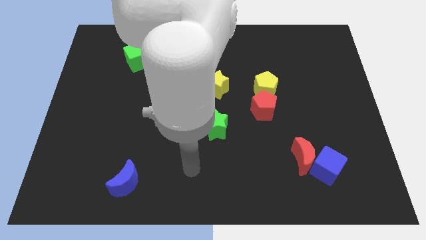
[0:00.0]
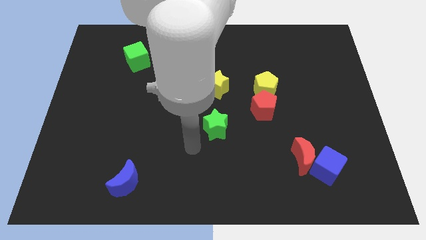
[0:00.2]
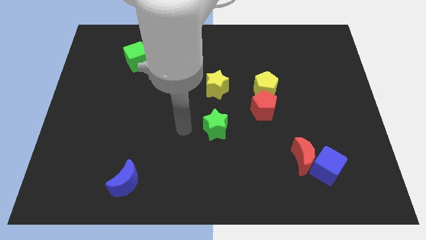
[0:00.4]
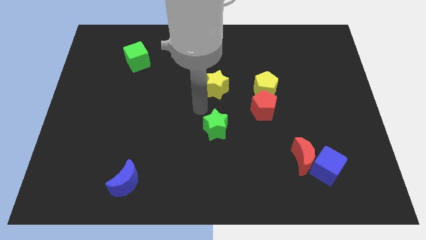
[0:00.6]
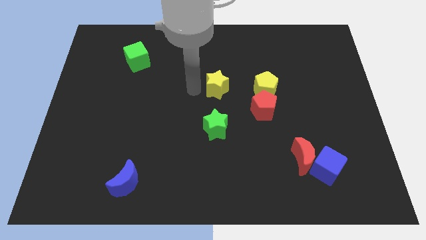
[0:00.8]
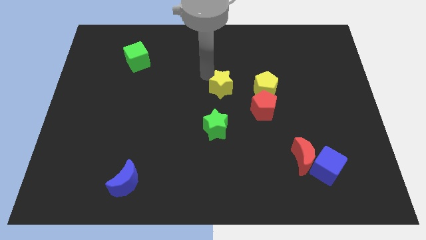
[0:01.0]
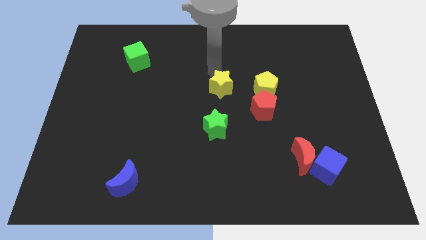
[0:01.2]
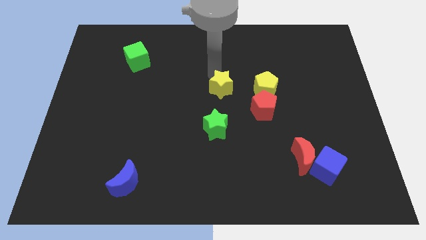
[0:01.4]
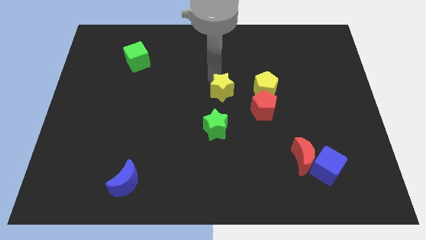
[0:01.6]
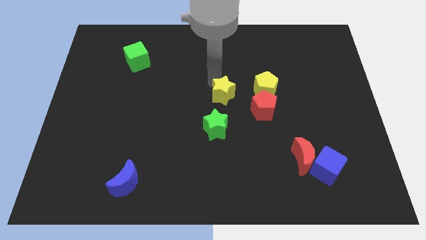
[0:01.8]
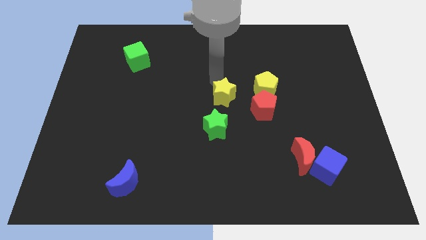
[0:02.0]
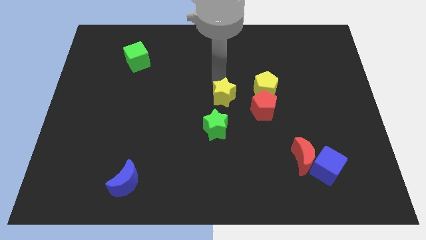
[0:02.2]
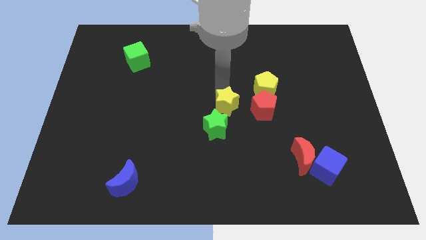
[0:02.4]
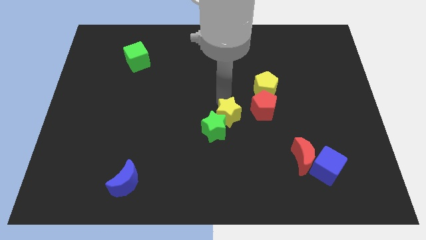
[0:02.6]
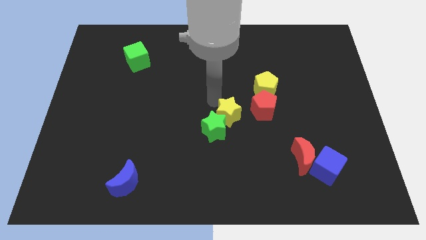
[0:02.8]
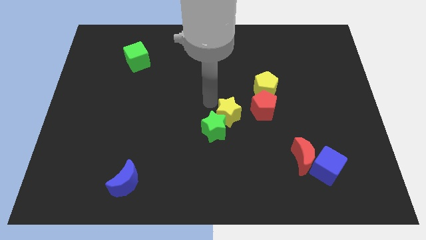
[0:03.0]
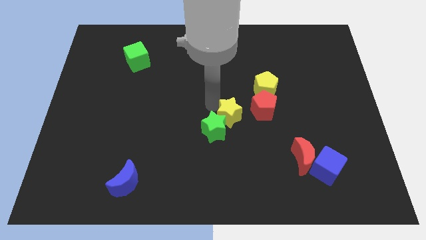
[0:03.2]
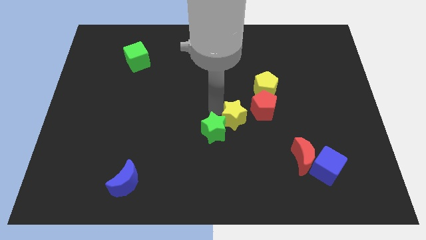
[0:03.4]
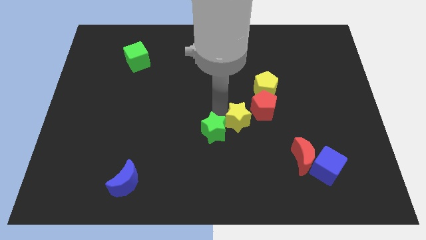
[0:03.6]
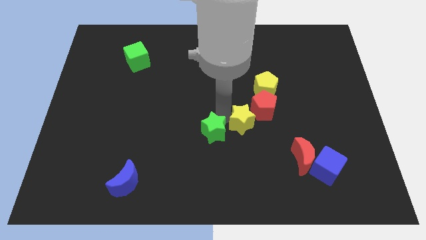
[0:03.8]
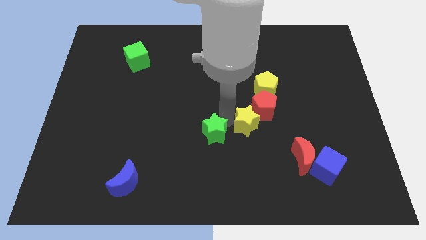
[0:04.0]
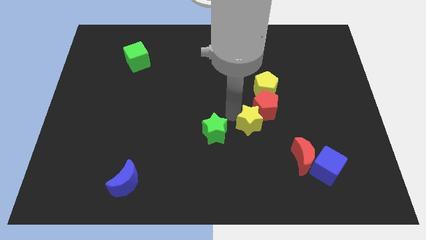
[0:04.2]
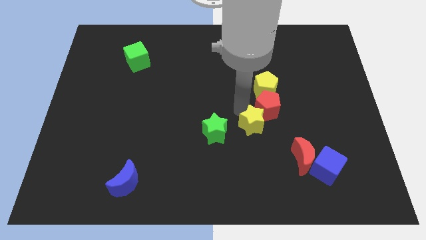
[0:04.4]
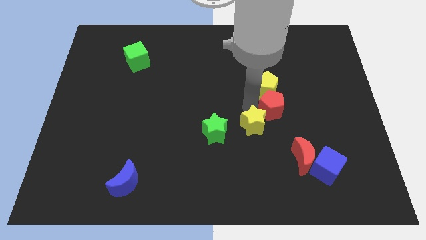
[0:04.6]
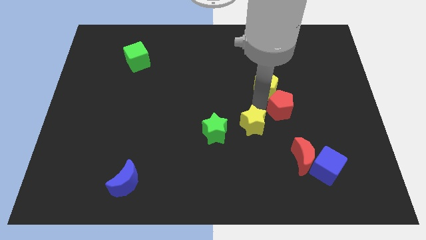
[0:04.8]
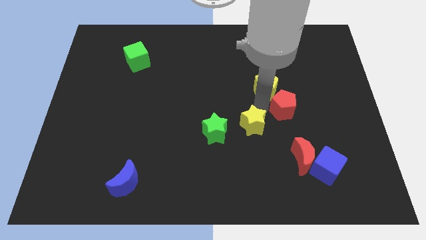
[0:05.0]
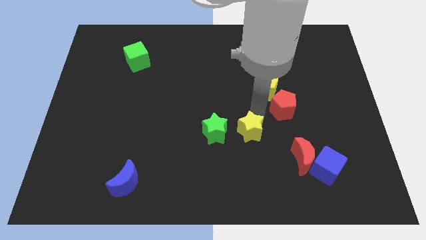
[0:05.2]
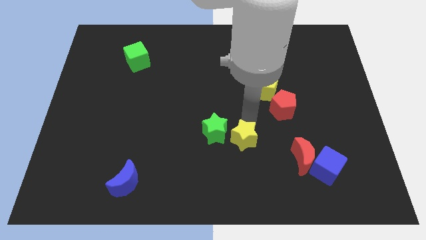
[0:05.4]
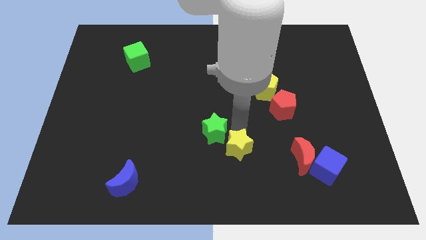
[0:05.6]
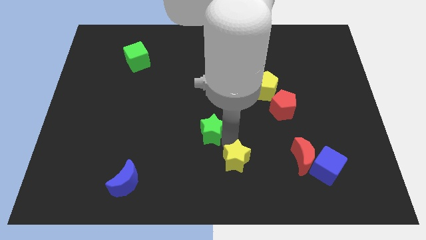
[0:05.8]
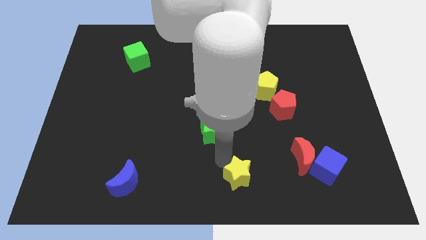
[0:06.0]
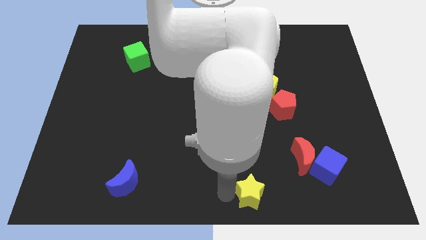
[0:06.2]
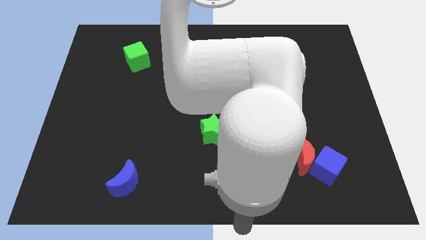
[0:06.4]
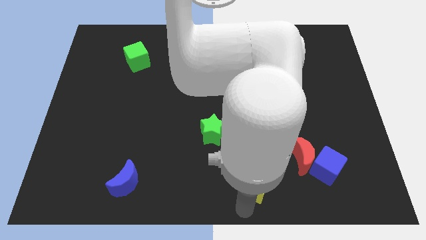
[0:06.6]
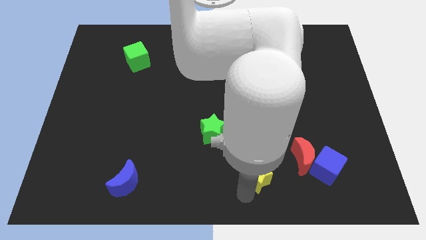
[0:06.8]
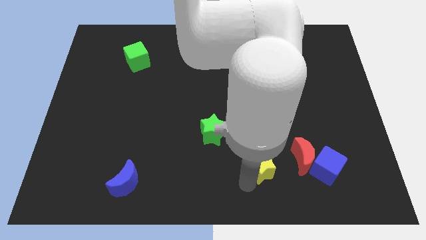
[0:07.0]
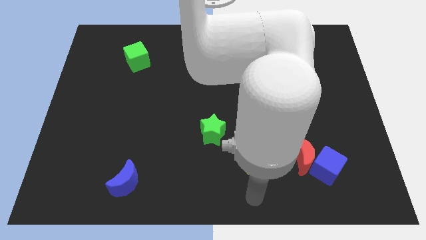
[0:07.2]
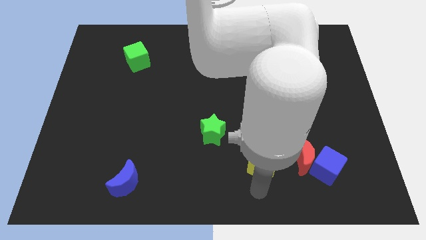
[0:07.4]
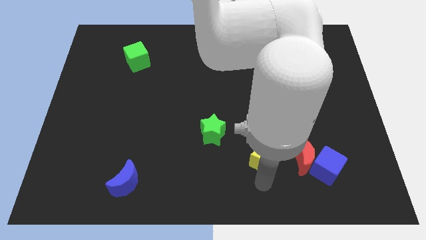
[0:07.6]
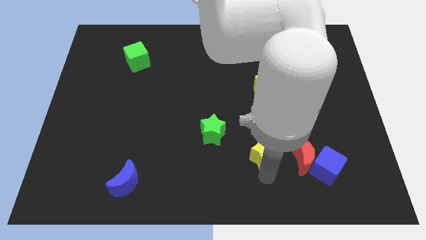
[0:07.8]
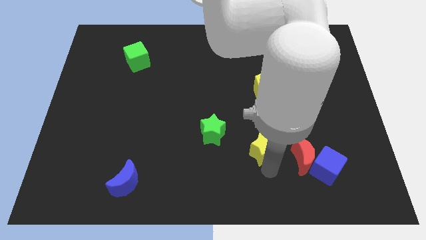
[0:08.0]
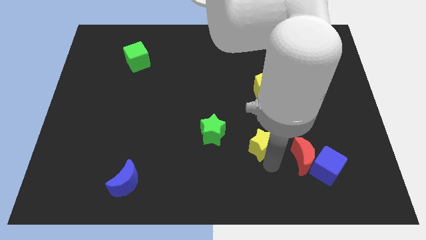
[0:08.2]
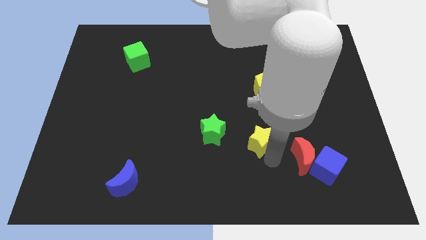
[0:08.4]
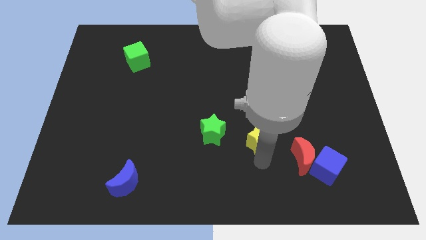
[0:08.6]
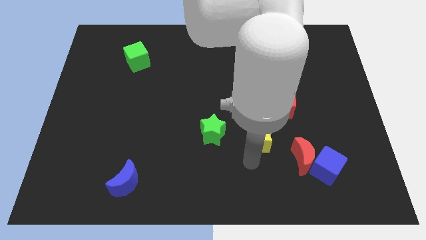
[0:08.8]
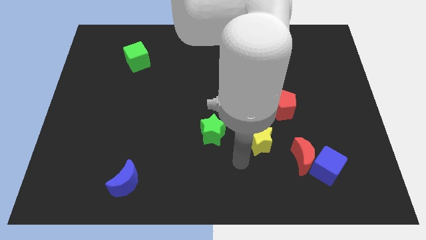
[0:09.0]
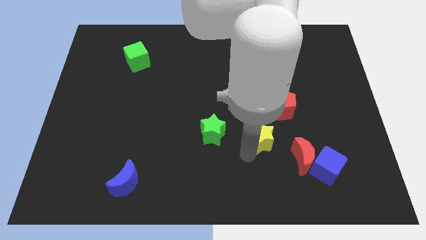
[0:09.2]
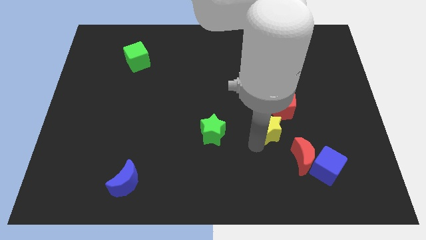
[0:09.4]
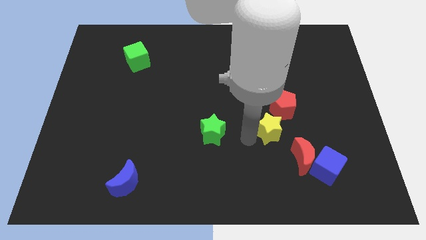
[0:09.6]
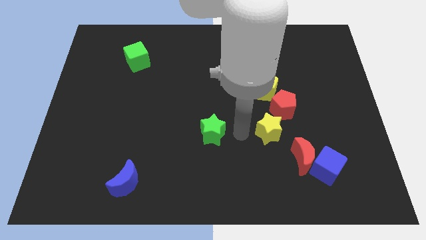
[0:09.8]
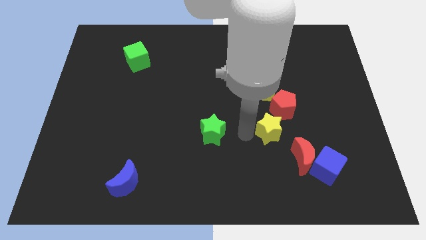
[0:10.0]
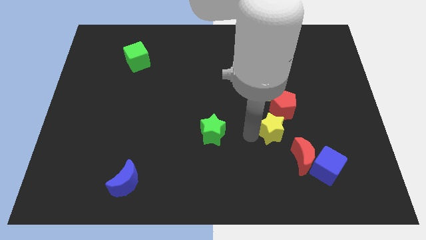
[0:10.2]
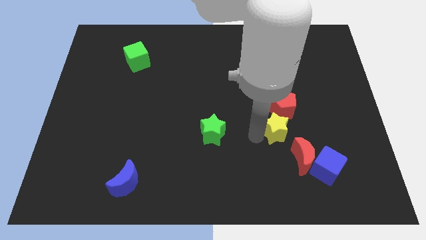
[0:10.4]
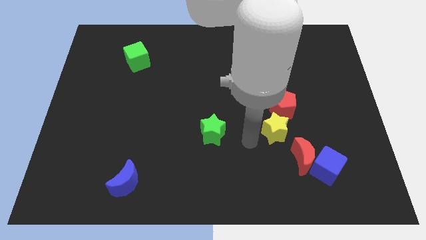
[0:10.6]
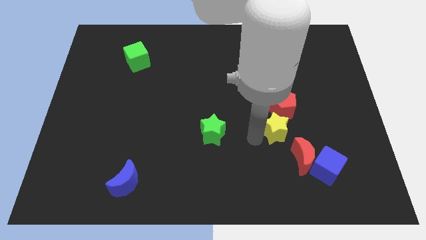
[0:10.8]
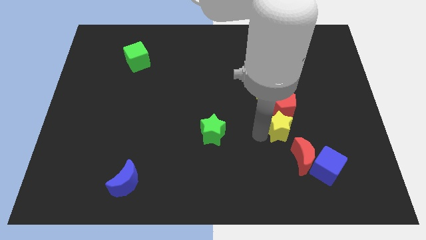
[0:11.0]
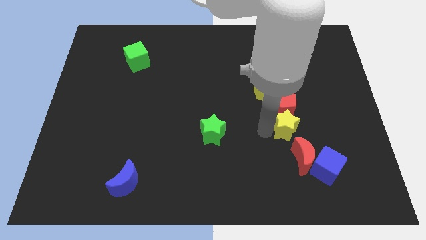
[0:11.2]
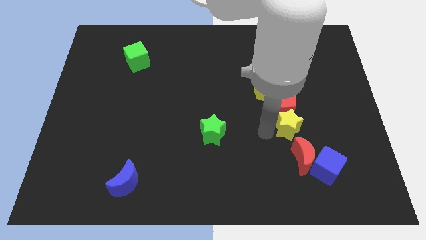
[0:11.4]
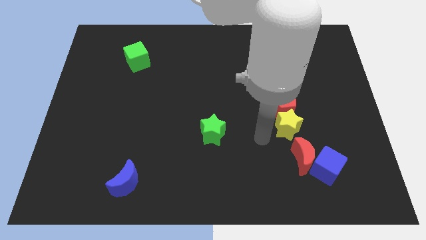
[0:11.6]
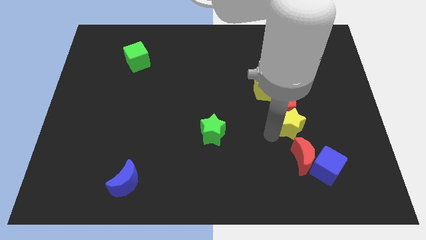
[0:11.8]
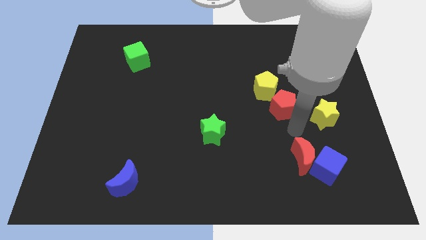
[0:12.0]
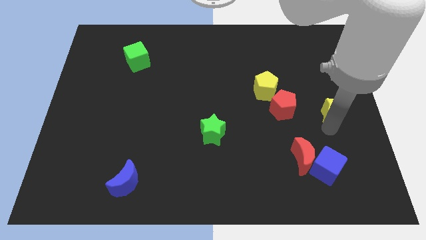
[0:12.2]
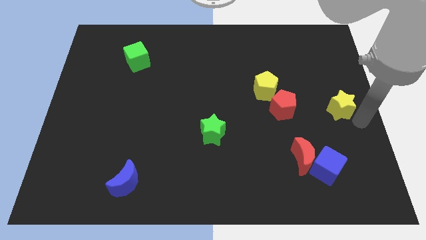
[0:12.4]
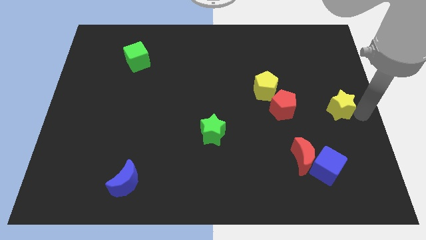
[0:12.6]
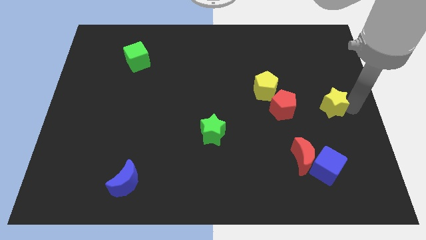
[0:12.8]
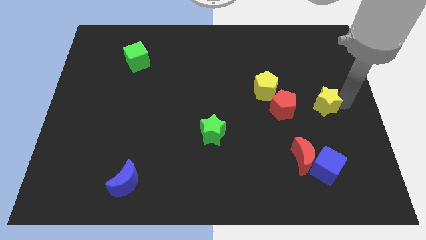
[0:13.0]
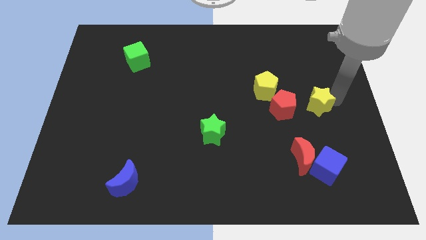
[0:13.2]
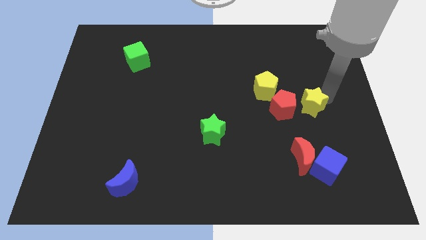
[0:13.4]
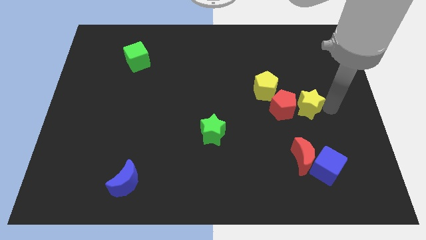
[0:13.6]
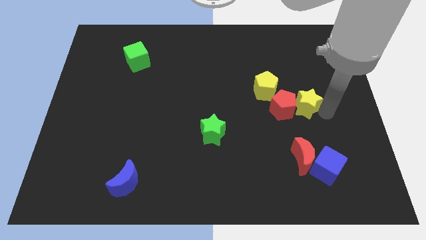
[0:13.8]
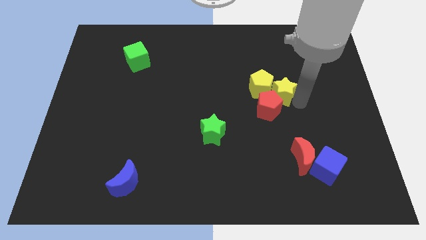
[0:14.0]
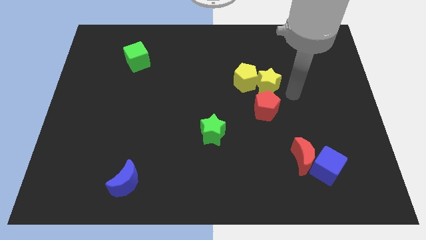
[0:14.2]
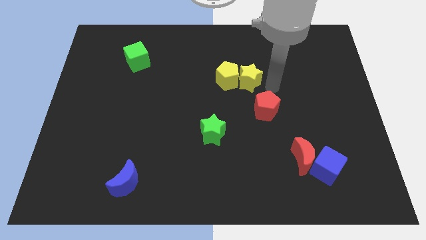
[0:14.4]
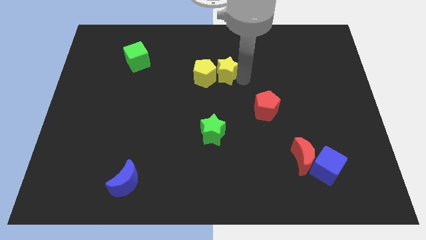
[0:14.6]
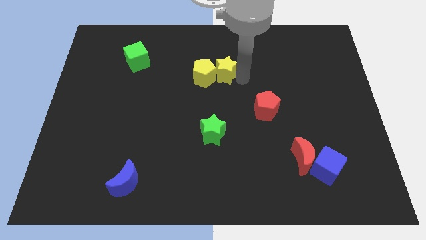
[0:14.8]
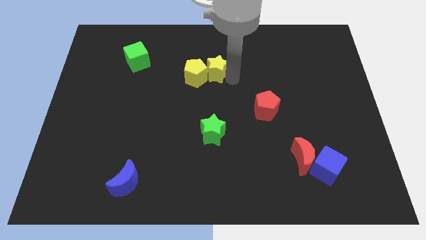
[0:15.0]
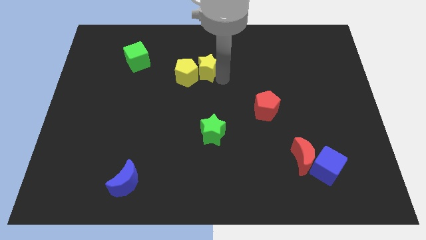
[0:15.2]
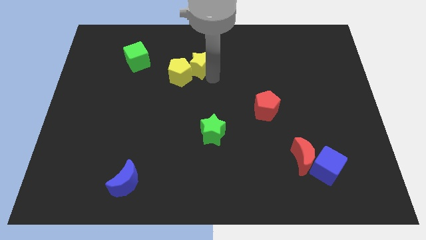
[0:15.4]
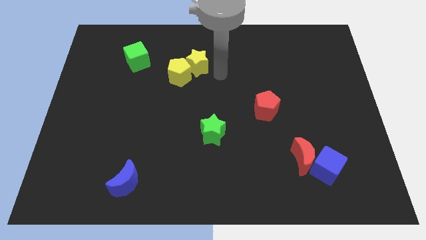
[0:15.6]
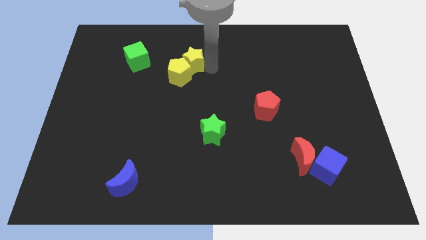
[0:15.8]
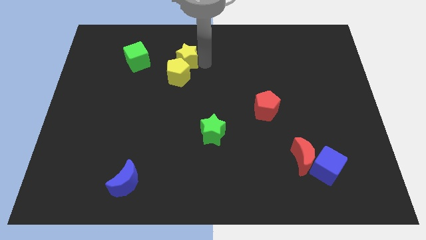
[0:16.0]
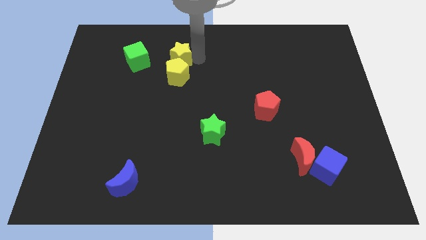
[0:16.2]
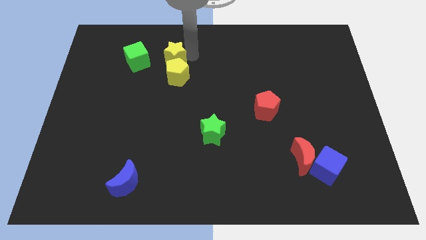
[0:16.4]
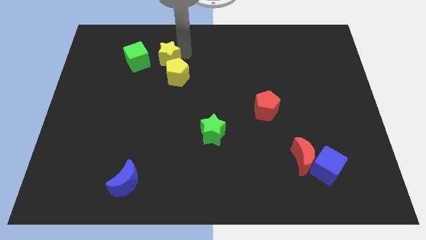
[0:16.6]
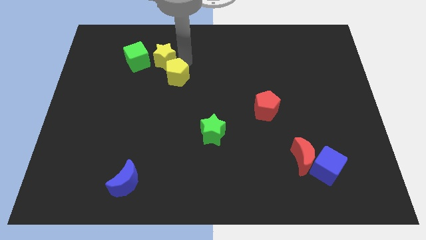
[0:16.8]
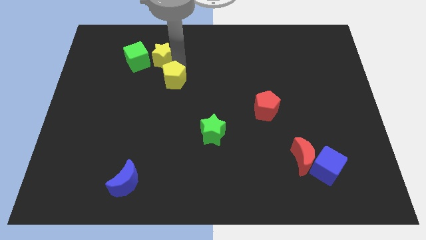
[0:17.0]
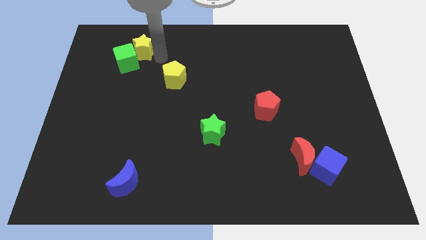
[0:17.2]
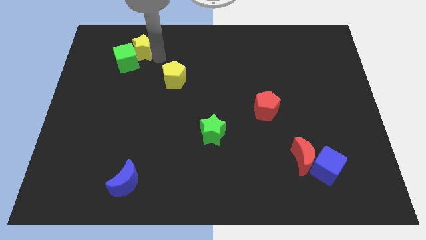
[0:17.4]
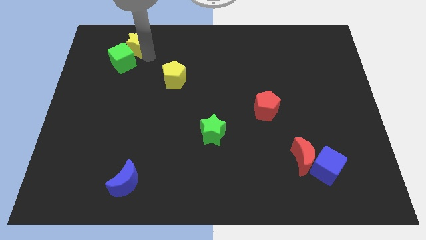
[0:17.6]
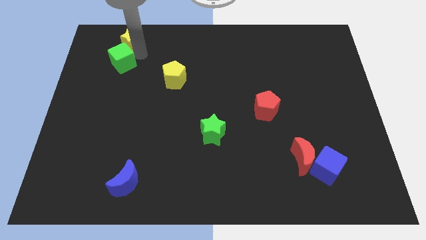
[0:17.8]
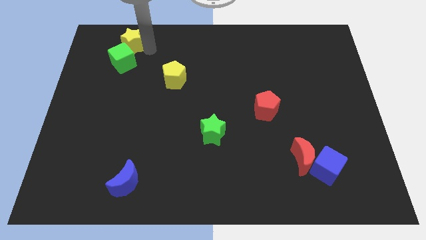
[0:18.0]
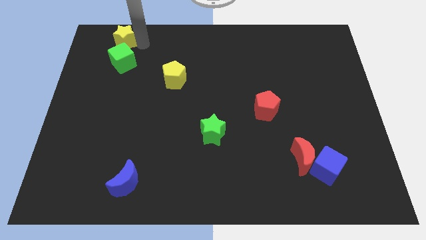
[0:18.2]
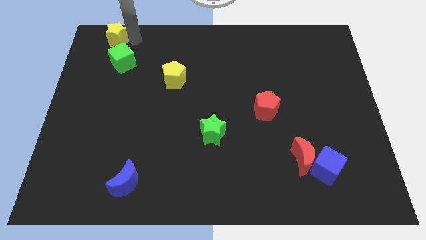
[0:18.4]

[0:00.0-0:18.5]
move the yellow star to the top left
